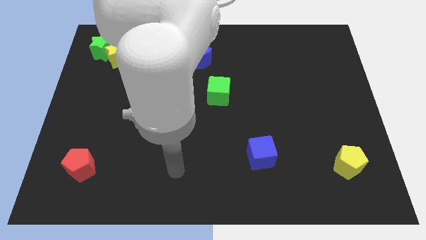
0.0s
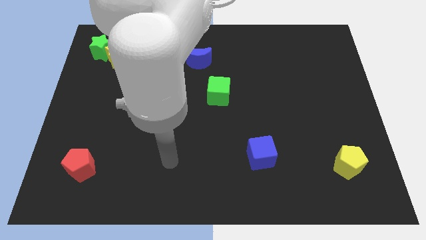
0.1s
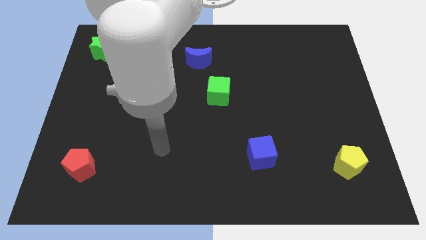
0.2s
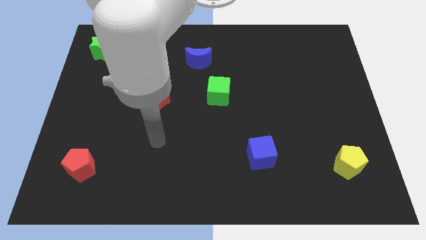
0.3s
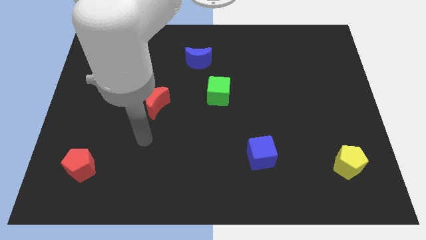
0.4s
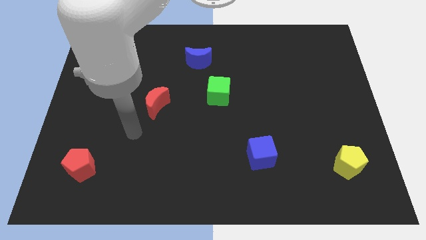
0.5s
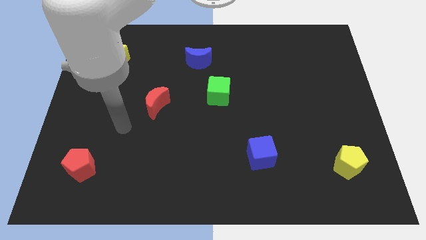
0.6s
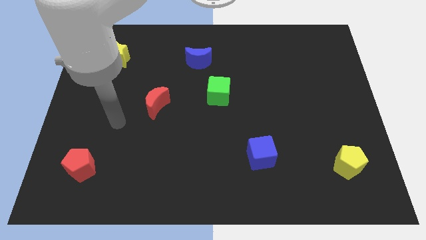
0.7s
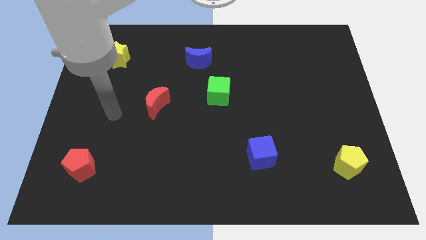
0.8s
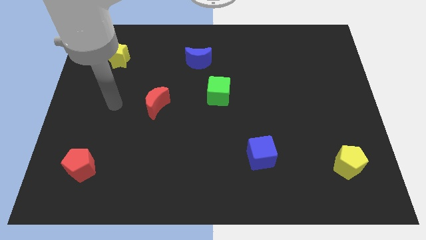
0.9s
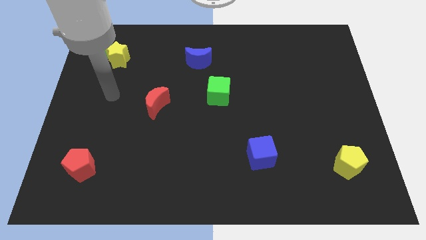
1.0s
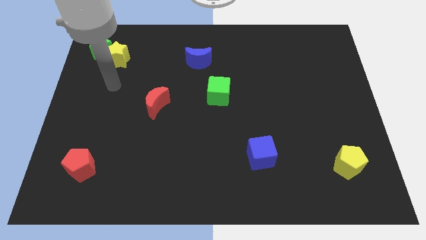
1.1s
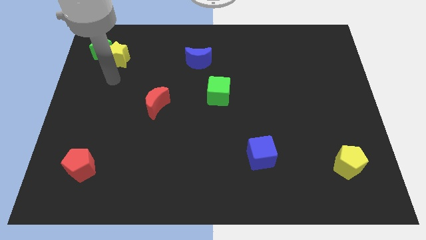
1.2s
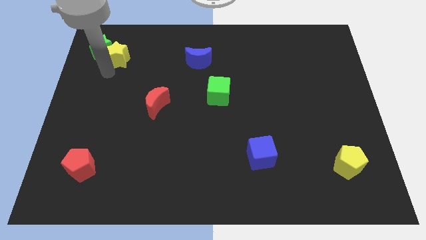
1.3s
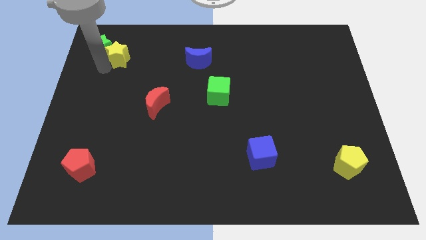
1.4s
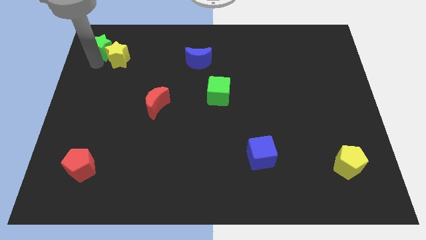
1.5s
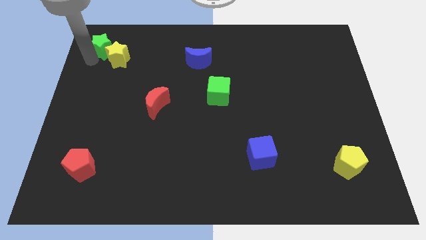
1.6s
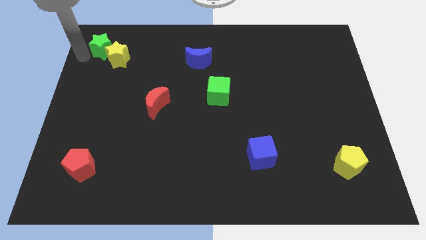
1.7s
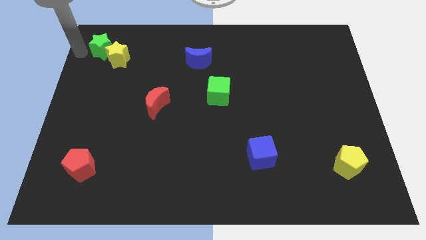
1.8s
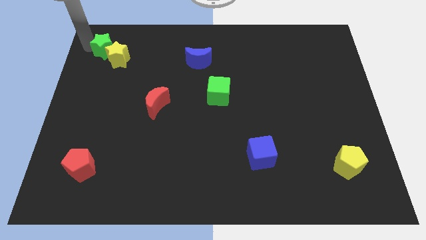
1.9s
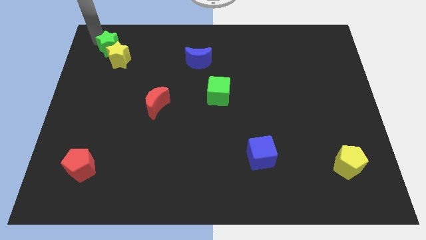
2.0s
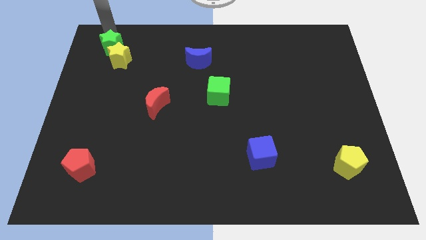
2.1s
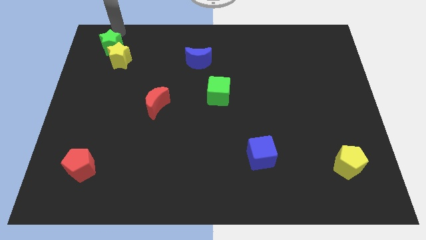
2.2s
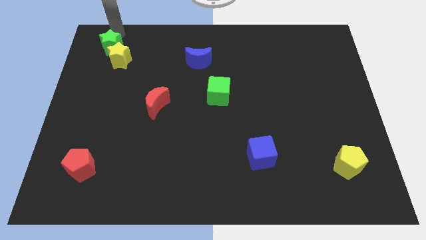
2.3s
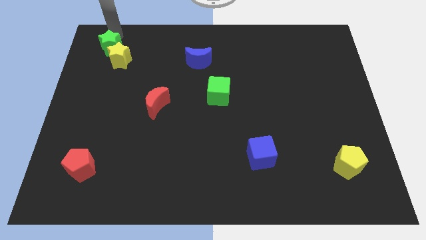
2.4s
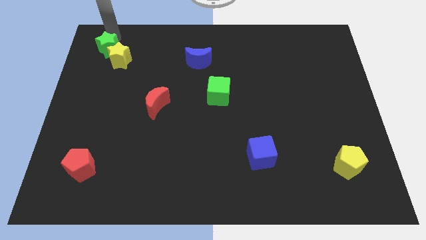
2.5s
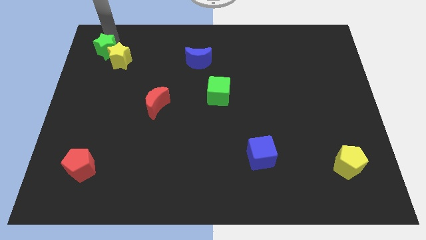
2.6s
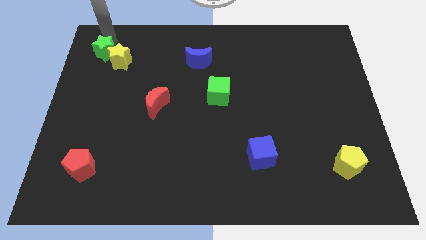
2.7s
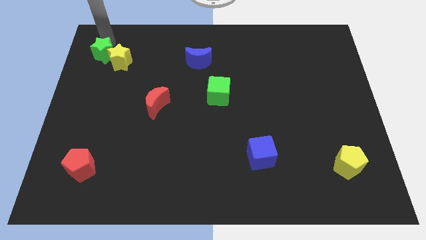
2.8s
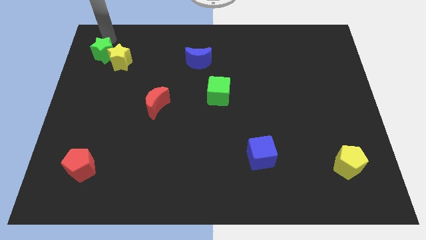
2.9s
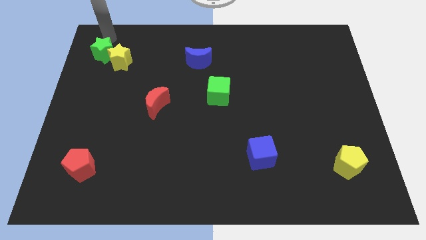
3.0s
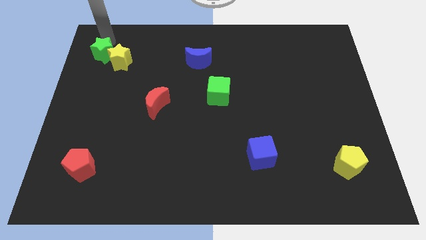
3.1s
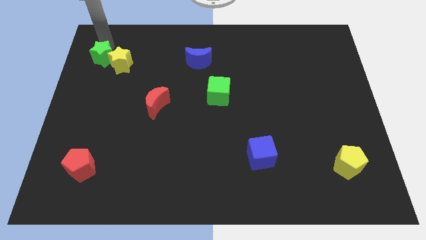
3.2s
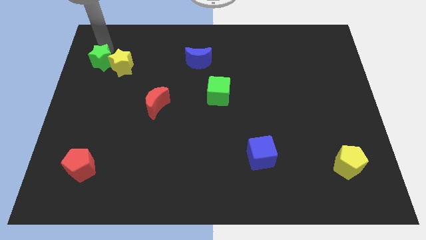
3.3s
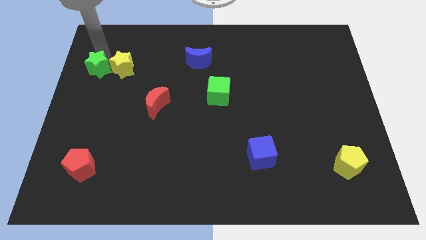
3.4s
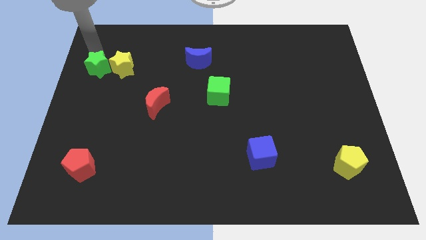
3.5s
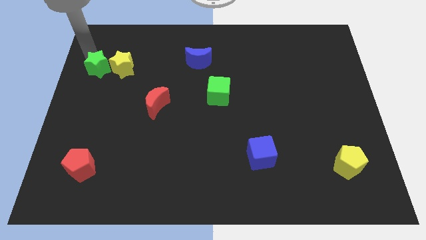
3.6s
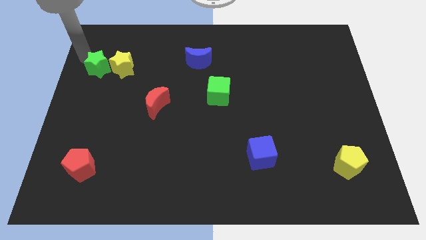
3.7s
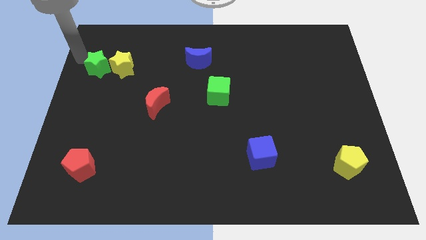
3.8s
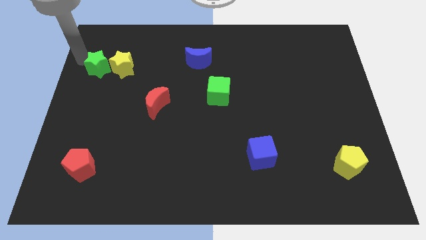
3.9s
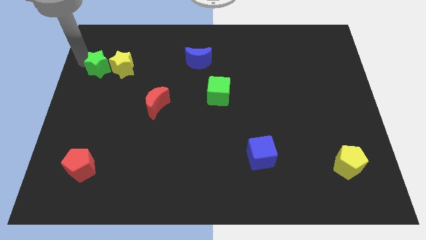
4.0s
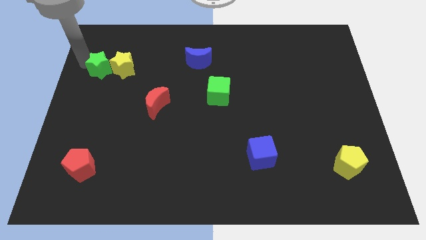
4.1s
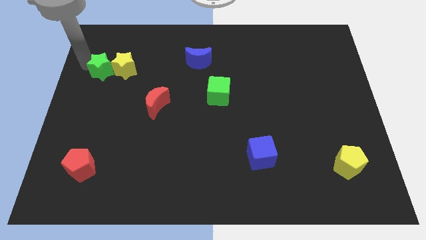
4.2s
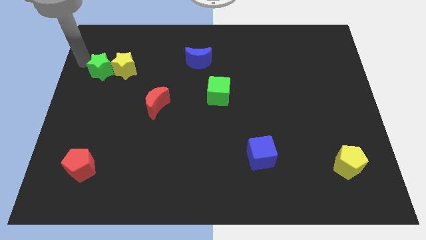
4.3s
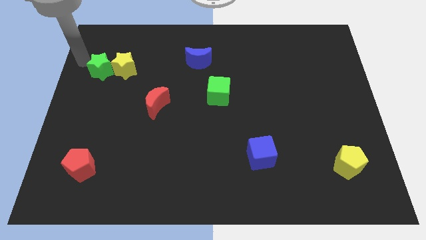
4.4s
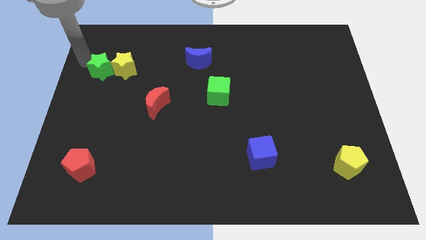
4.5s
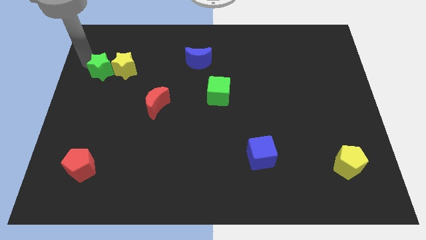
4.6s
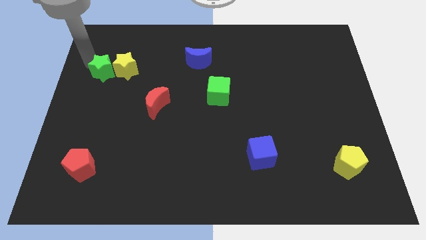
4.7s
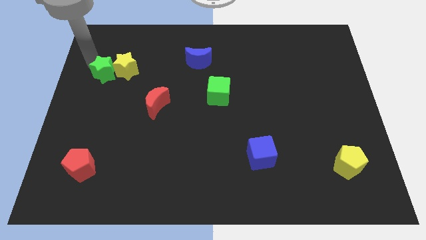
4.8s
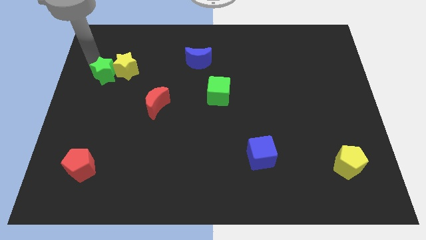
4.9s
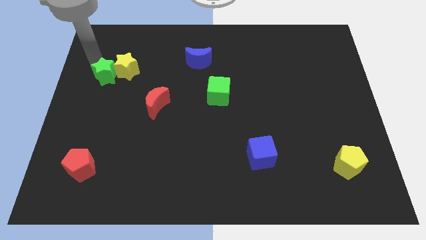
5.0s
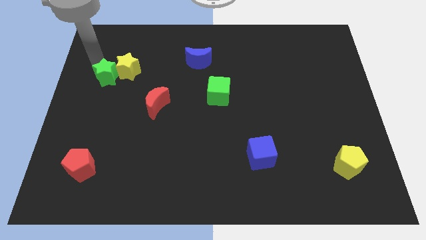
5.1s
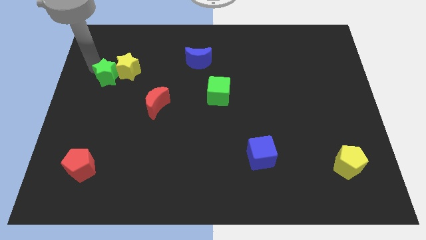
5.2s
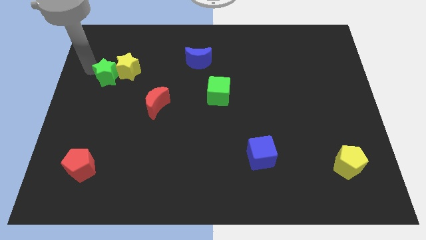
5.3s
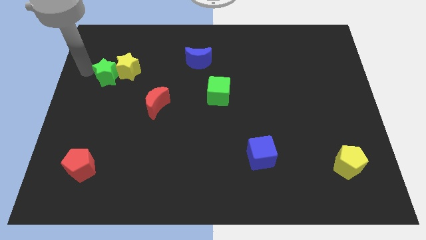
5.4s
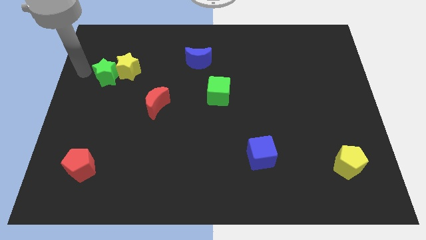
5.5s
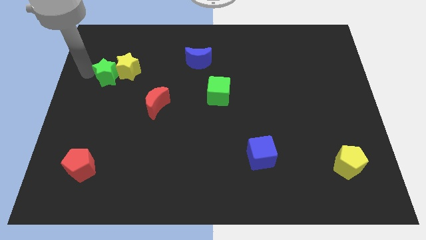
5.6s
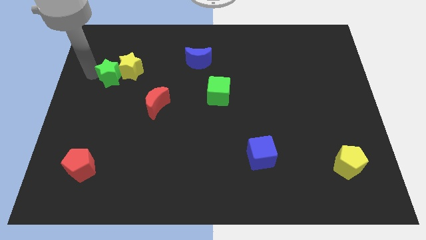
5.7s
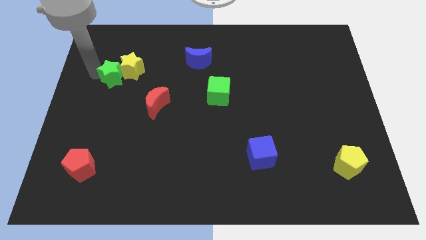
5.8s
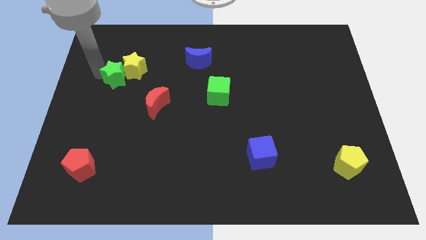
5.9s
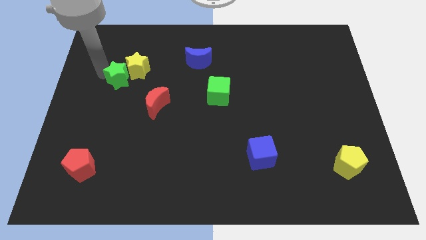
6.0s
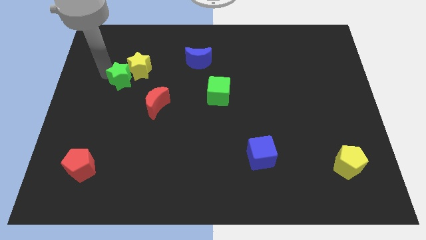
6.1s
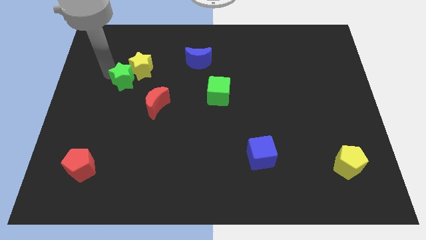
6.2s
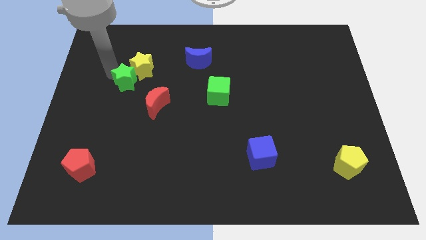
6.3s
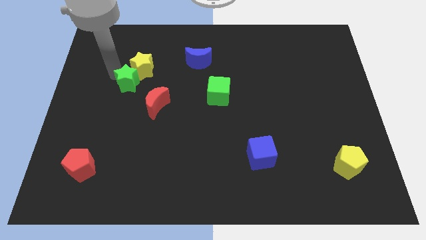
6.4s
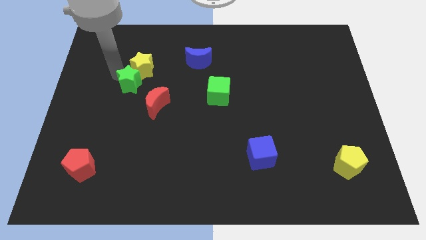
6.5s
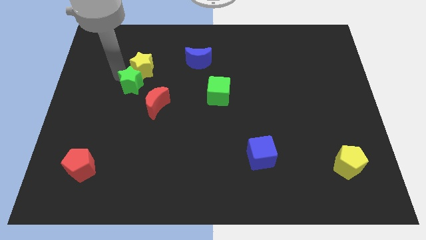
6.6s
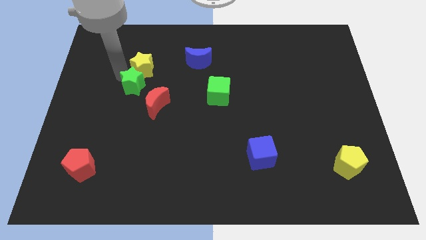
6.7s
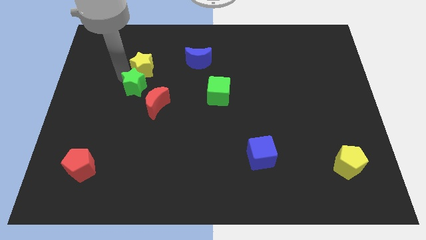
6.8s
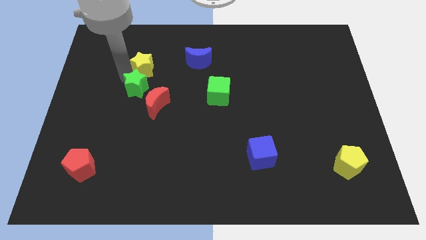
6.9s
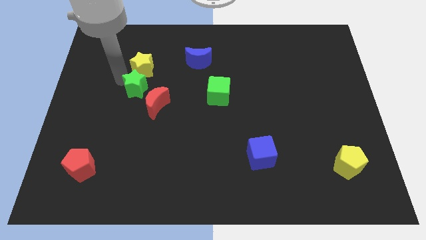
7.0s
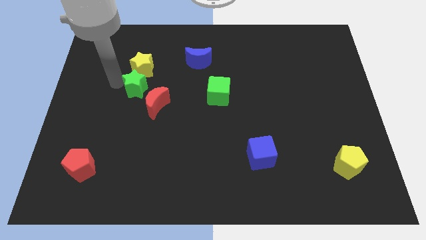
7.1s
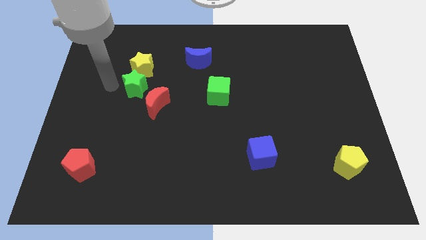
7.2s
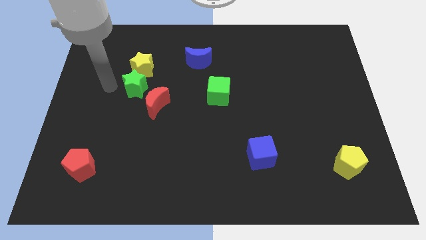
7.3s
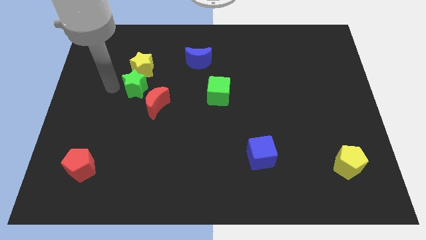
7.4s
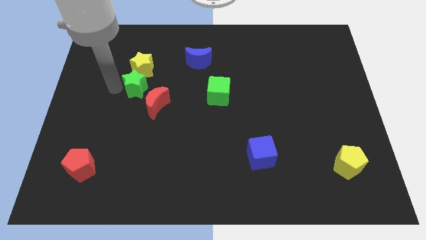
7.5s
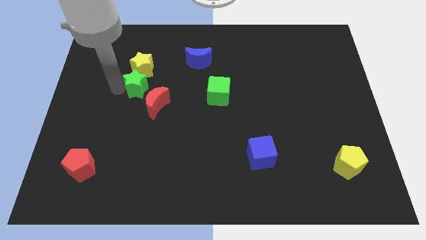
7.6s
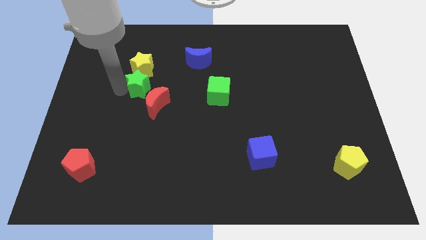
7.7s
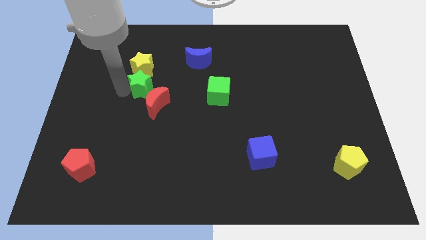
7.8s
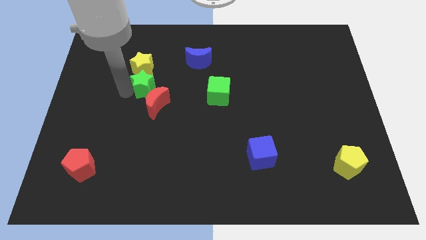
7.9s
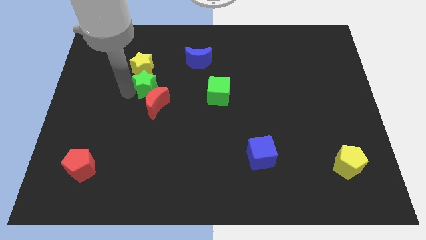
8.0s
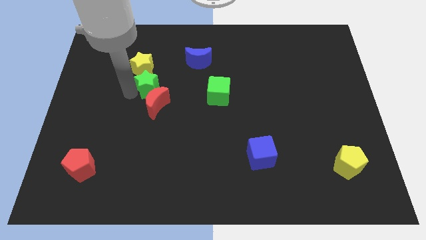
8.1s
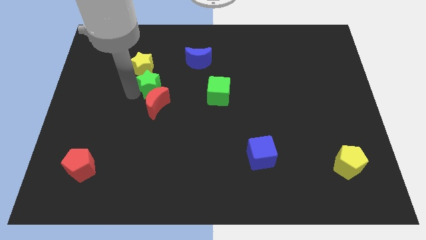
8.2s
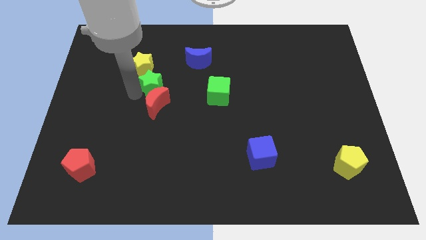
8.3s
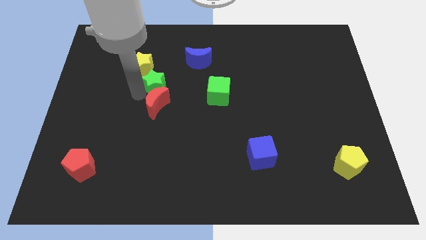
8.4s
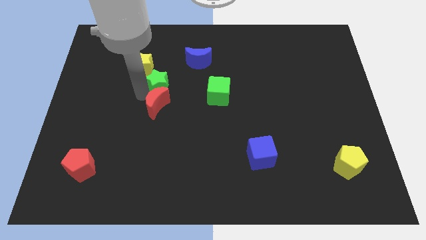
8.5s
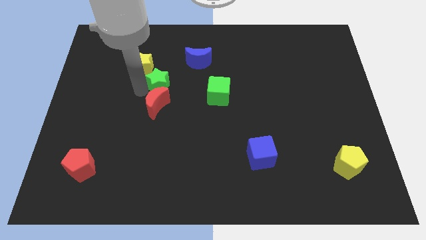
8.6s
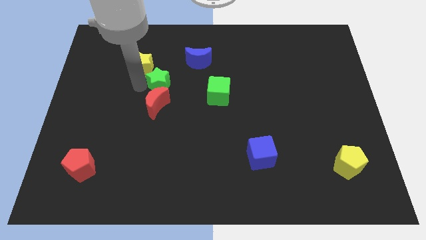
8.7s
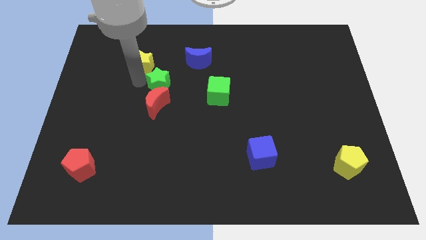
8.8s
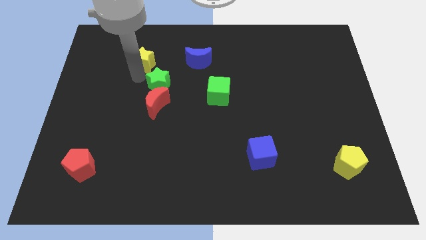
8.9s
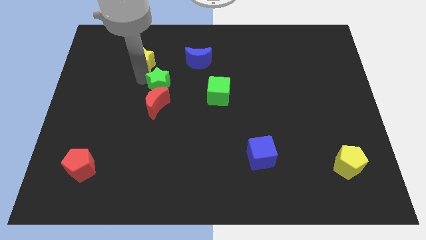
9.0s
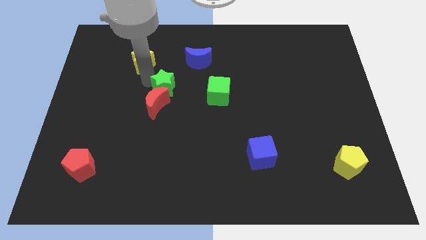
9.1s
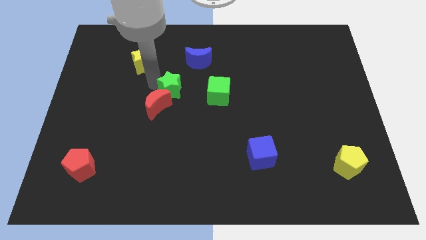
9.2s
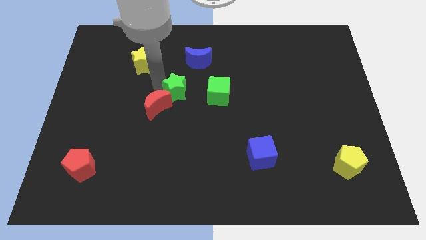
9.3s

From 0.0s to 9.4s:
put the green star just right of the red moon
